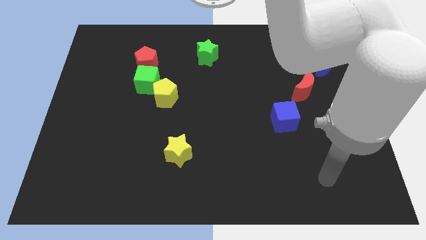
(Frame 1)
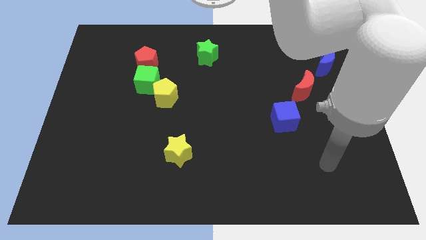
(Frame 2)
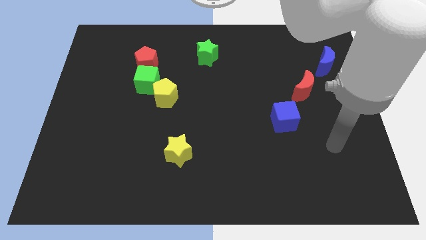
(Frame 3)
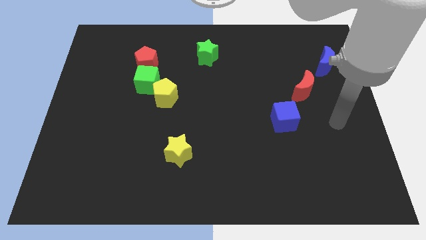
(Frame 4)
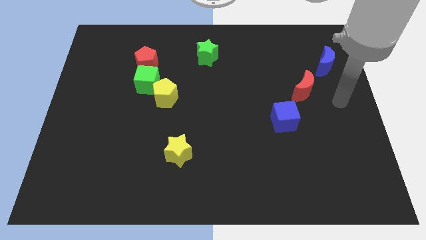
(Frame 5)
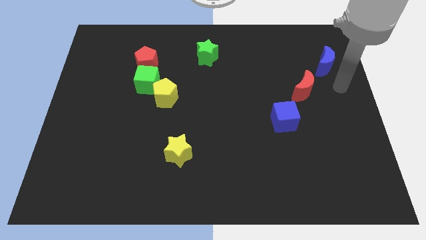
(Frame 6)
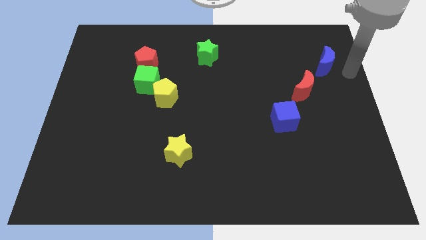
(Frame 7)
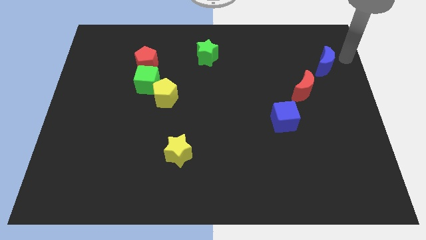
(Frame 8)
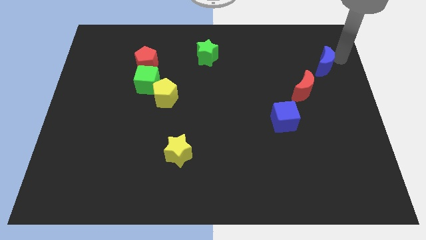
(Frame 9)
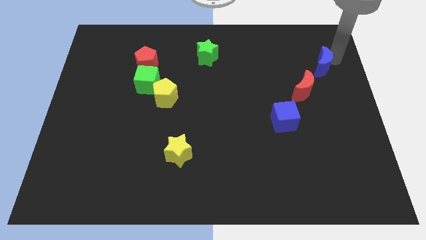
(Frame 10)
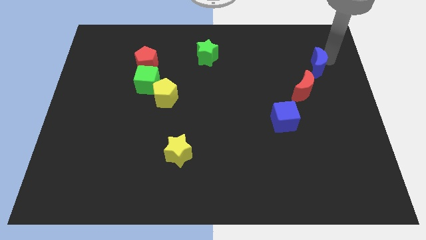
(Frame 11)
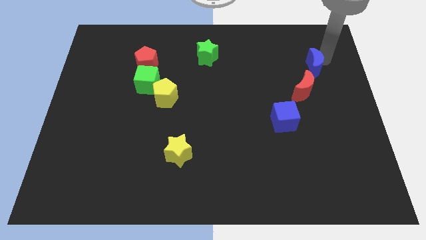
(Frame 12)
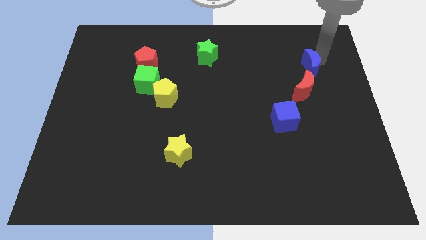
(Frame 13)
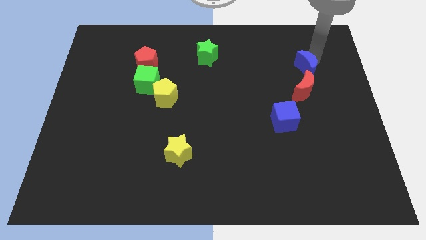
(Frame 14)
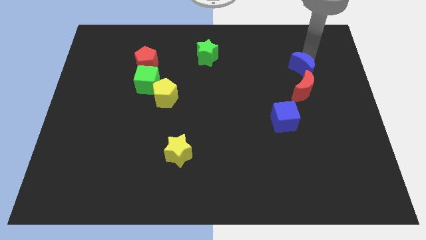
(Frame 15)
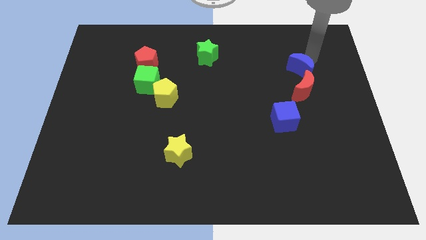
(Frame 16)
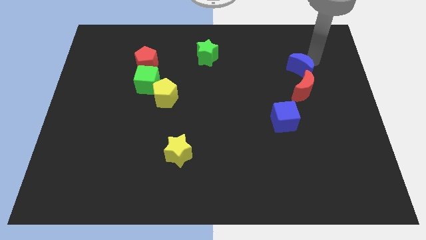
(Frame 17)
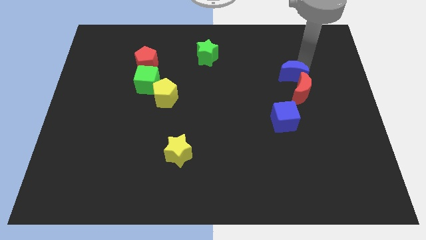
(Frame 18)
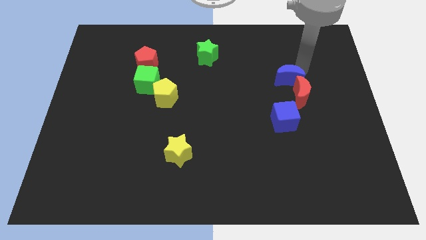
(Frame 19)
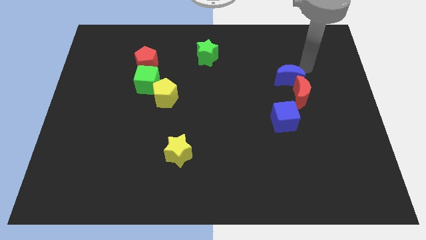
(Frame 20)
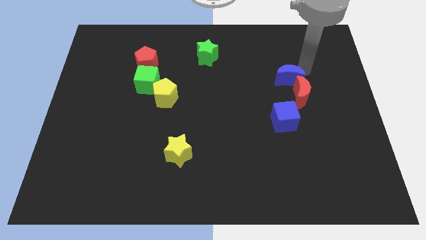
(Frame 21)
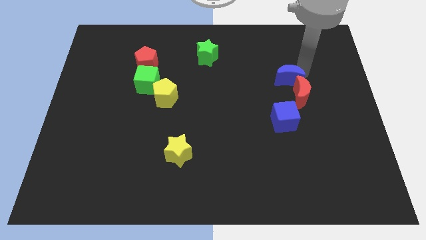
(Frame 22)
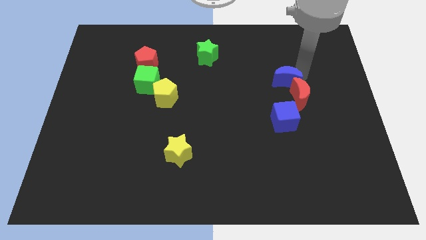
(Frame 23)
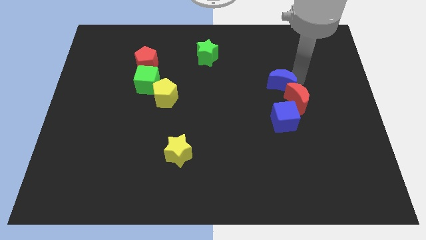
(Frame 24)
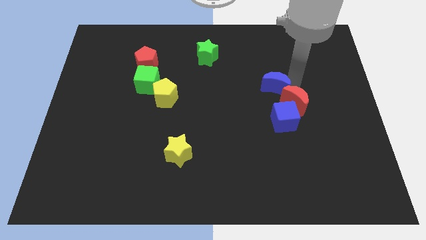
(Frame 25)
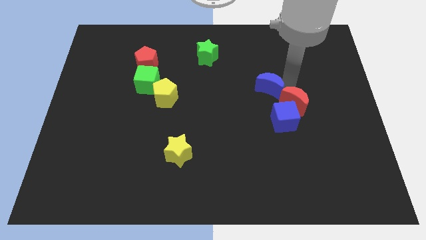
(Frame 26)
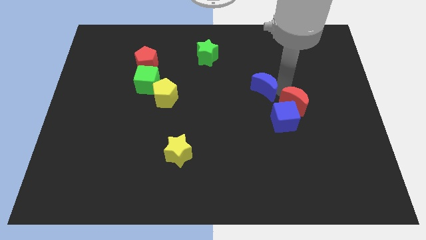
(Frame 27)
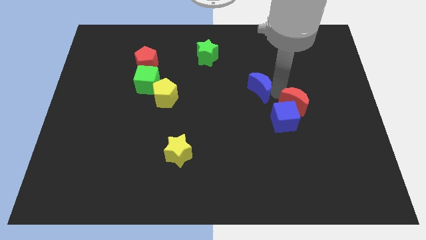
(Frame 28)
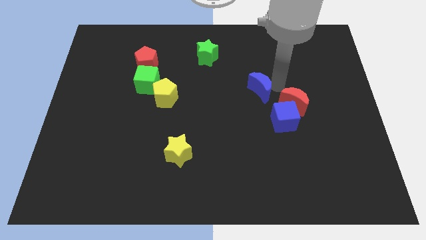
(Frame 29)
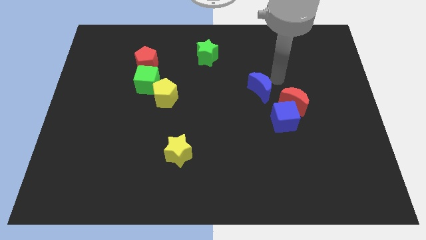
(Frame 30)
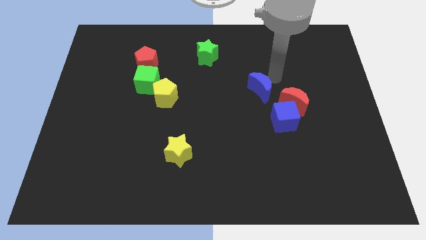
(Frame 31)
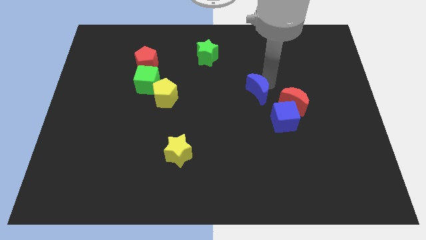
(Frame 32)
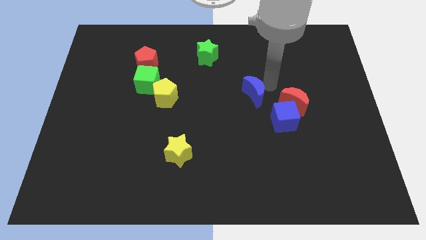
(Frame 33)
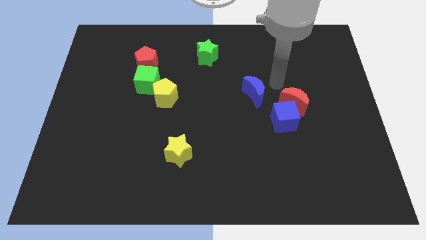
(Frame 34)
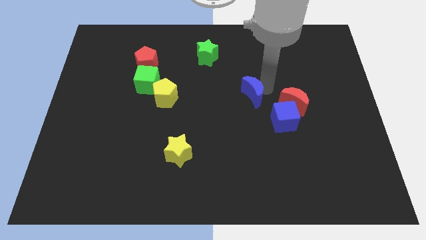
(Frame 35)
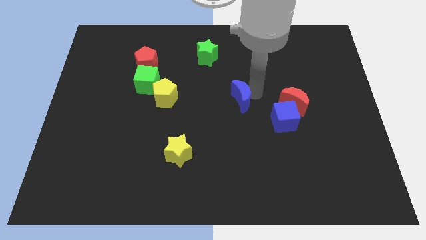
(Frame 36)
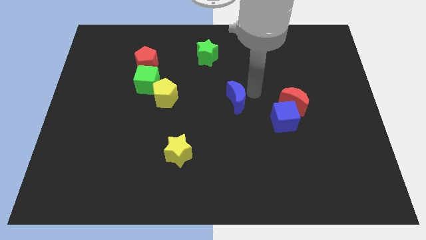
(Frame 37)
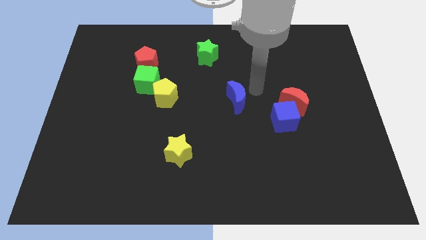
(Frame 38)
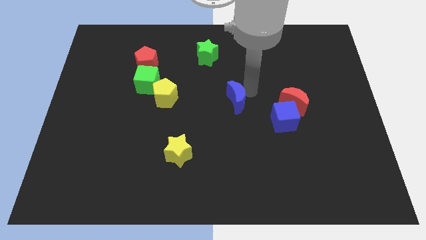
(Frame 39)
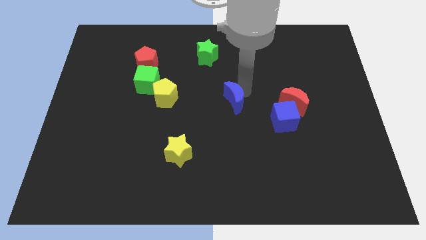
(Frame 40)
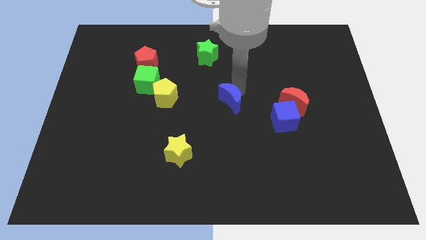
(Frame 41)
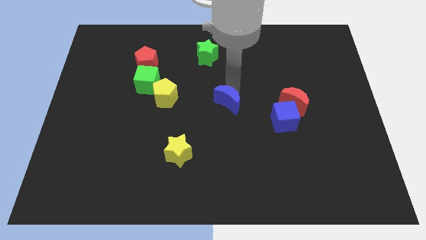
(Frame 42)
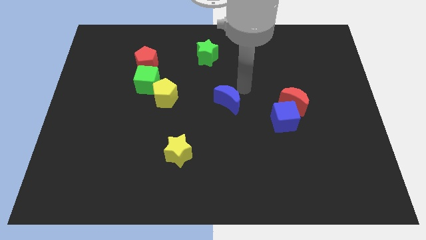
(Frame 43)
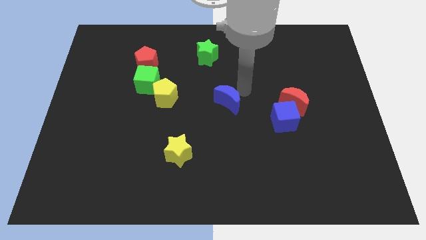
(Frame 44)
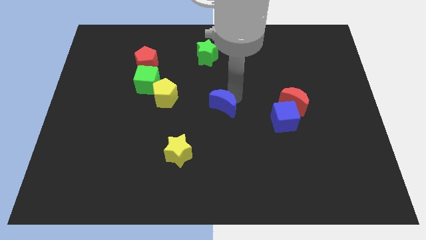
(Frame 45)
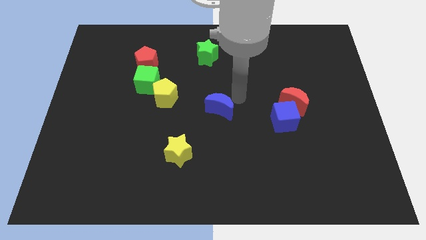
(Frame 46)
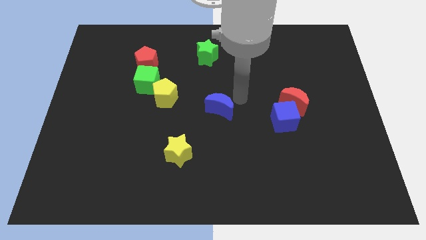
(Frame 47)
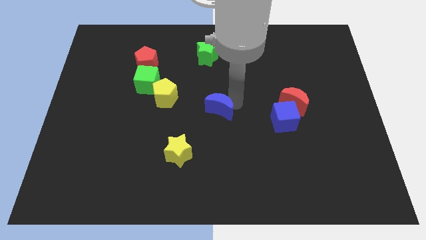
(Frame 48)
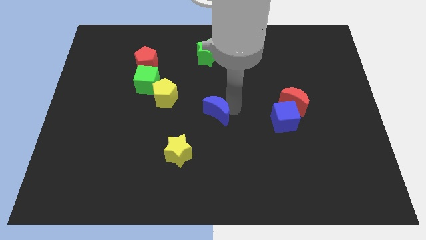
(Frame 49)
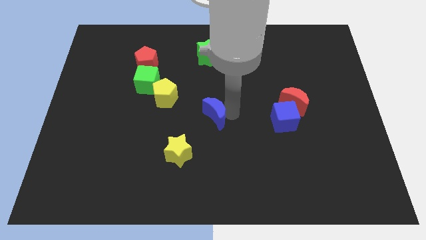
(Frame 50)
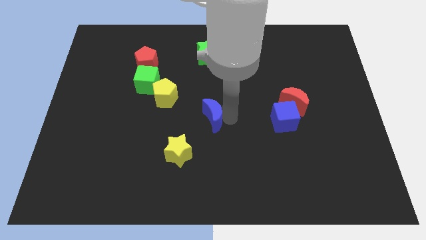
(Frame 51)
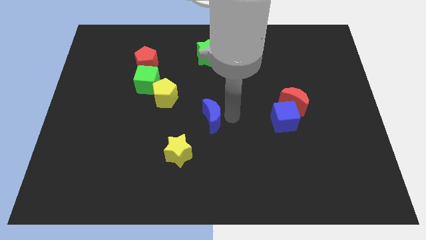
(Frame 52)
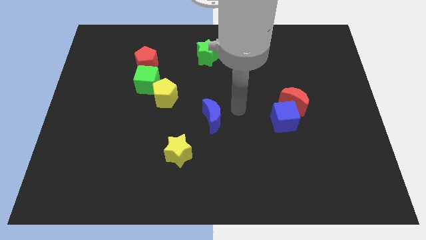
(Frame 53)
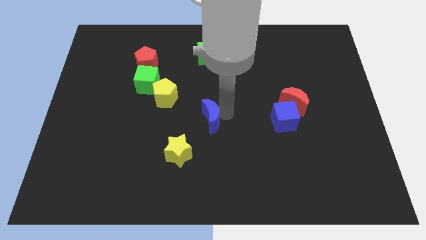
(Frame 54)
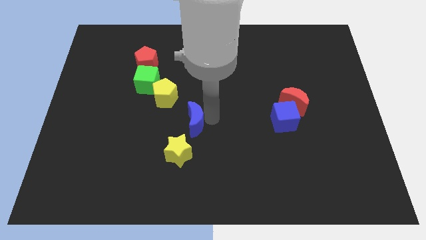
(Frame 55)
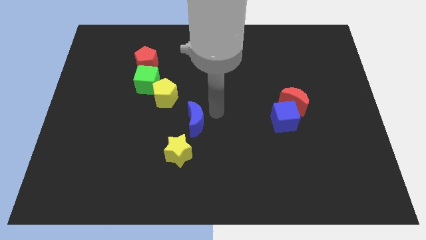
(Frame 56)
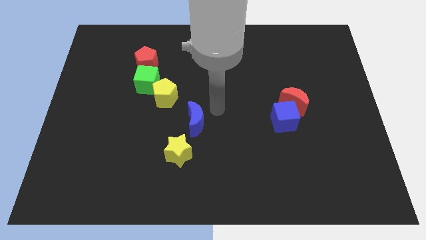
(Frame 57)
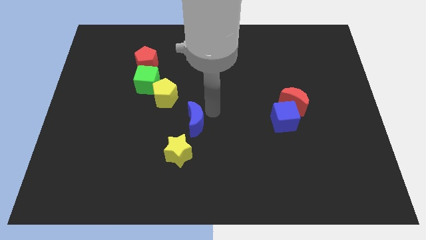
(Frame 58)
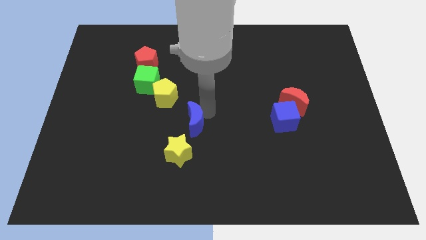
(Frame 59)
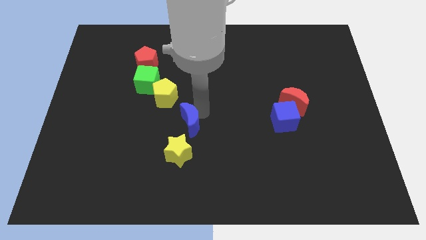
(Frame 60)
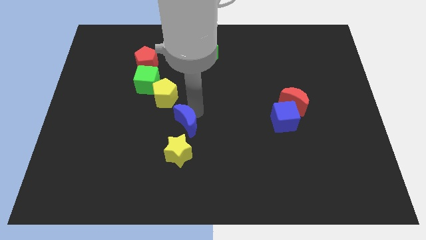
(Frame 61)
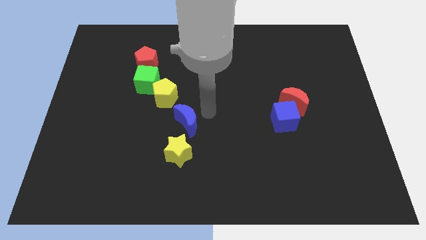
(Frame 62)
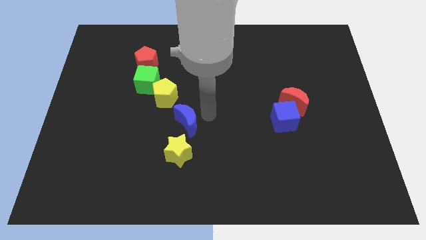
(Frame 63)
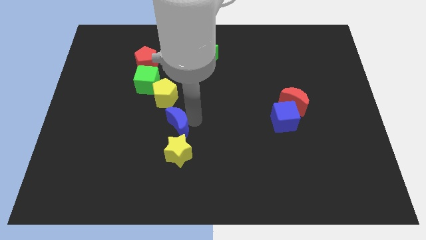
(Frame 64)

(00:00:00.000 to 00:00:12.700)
move the blue moon to the bottom side of the yellow pentagon

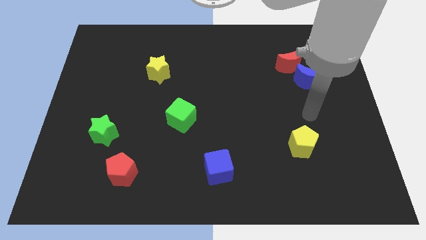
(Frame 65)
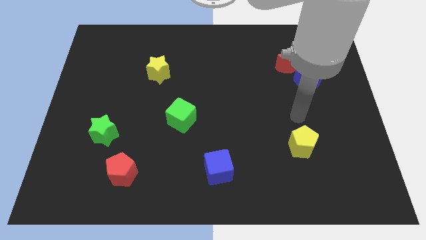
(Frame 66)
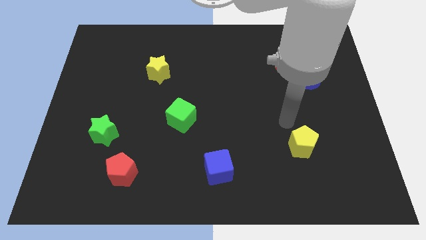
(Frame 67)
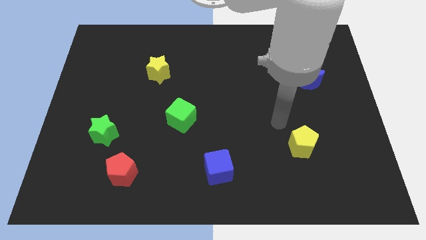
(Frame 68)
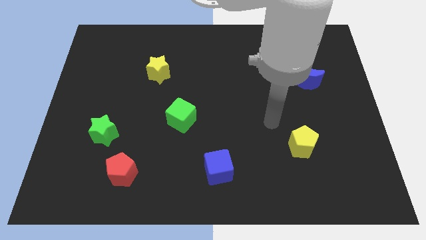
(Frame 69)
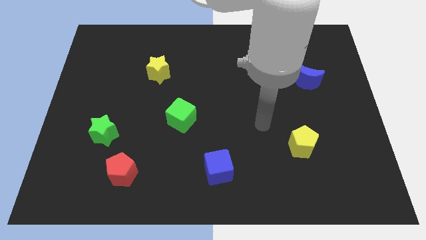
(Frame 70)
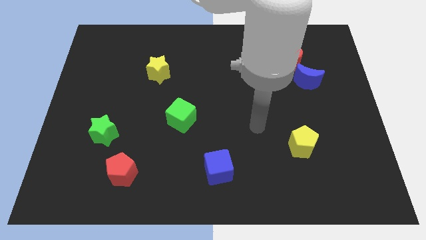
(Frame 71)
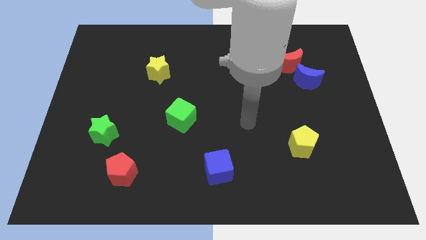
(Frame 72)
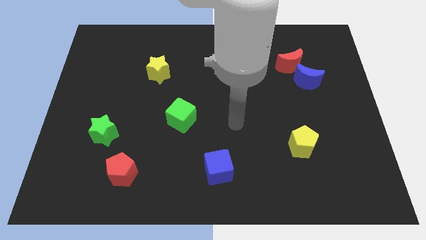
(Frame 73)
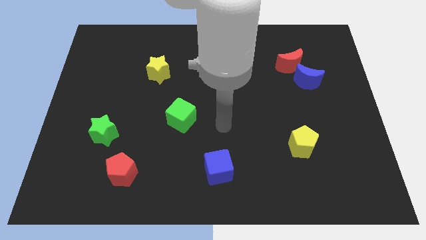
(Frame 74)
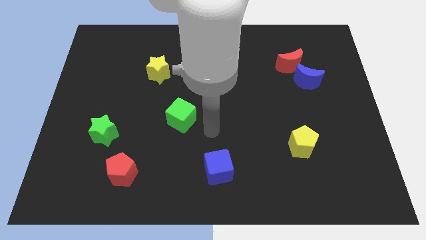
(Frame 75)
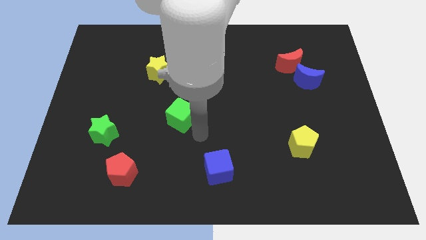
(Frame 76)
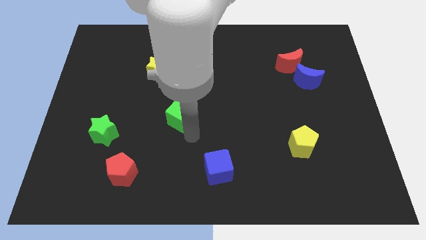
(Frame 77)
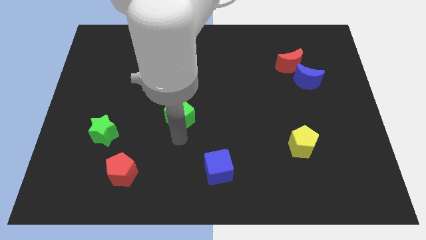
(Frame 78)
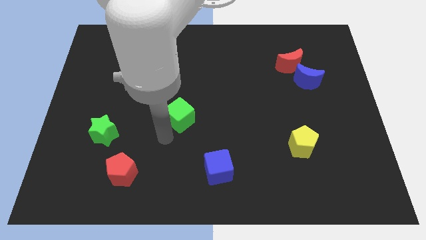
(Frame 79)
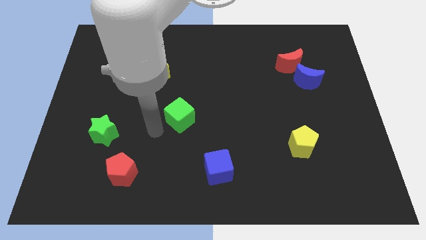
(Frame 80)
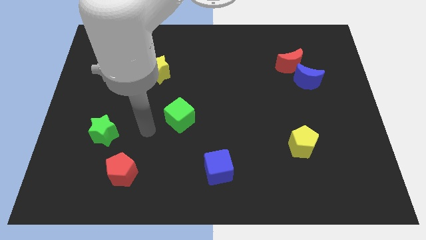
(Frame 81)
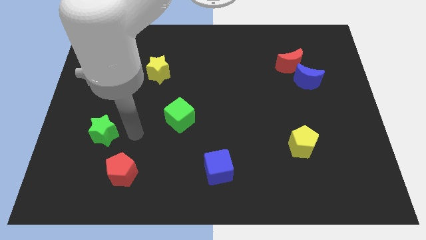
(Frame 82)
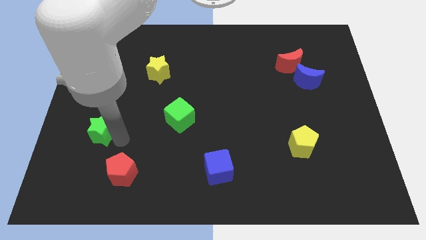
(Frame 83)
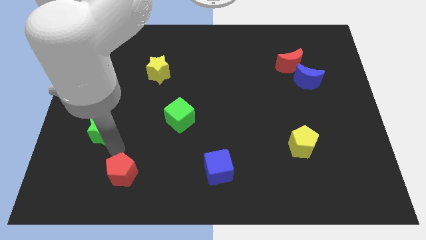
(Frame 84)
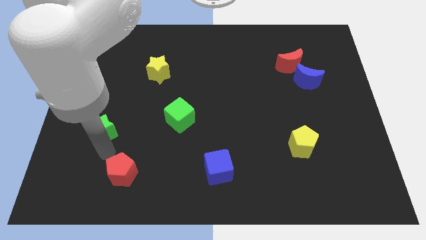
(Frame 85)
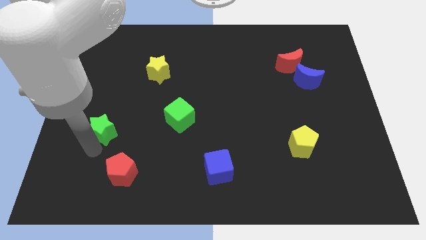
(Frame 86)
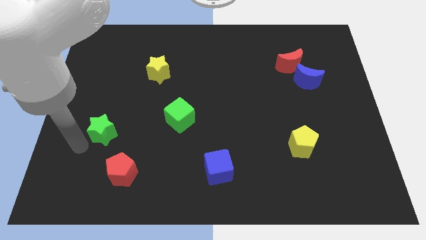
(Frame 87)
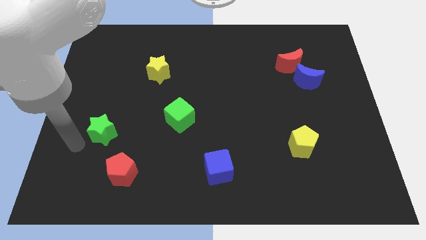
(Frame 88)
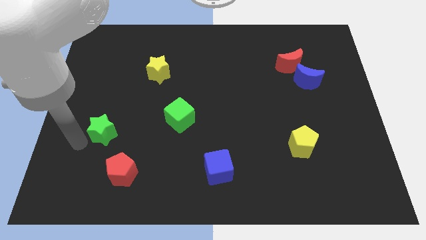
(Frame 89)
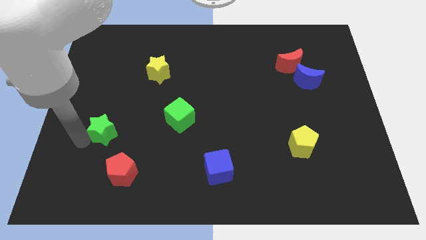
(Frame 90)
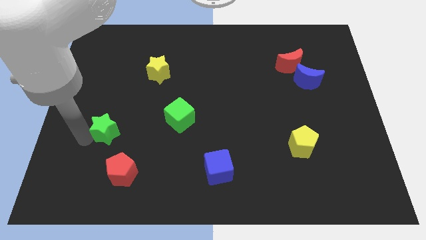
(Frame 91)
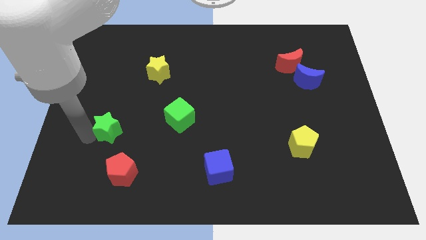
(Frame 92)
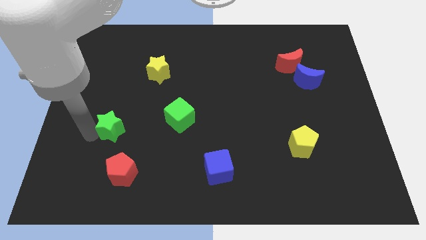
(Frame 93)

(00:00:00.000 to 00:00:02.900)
push the green star just left of the green cube
